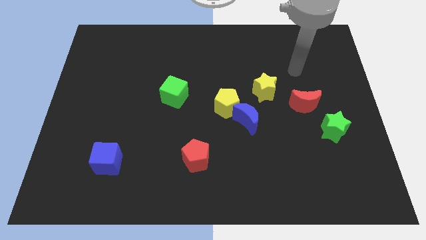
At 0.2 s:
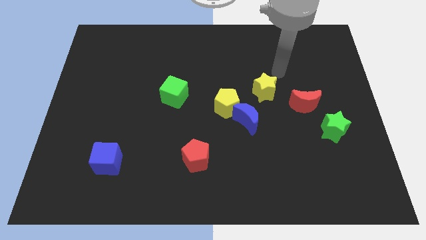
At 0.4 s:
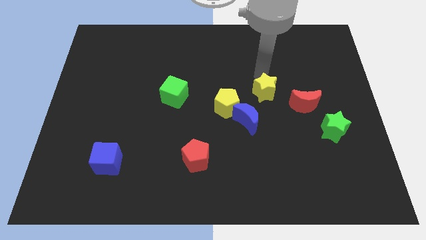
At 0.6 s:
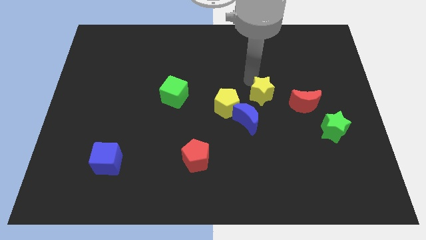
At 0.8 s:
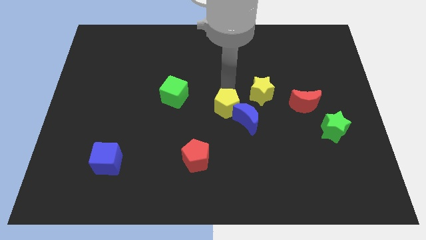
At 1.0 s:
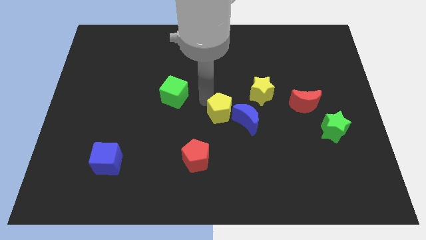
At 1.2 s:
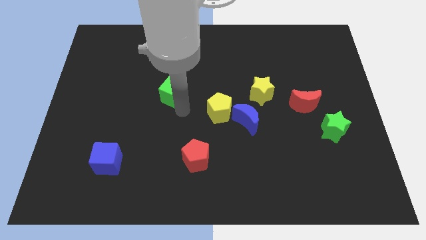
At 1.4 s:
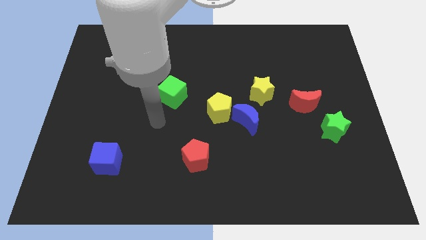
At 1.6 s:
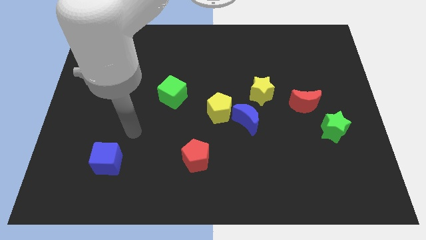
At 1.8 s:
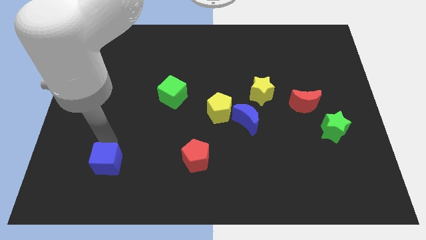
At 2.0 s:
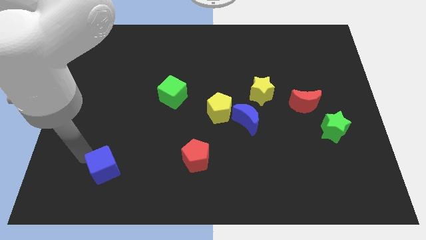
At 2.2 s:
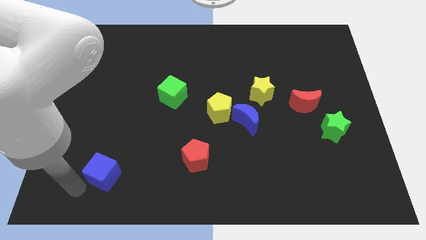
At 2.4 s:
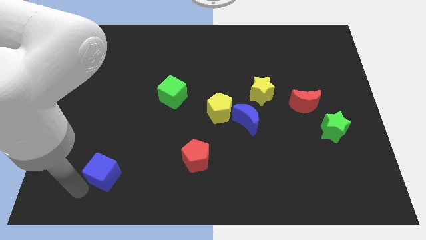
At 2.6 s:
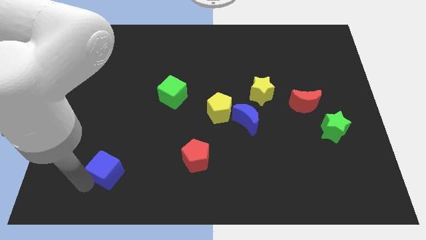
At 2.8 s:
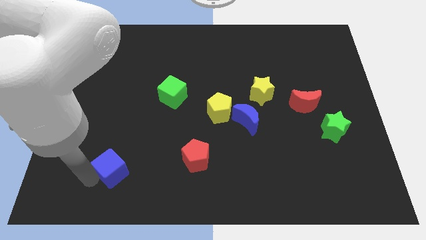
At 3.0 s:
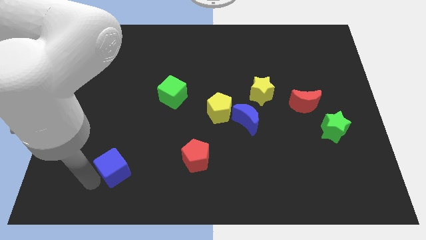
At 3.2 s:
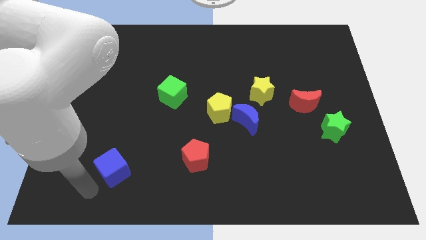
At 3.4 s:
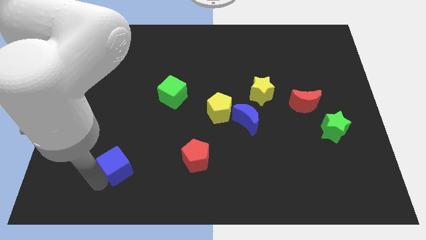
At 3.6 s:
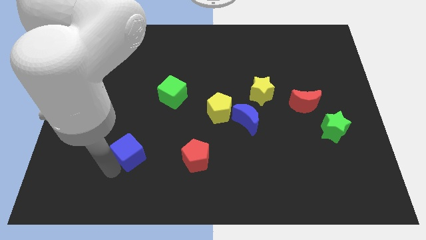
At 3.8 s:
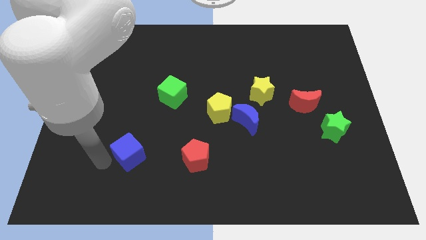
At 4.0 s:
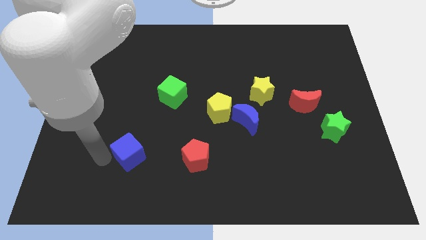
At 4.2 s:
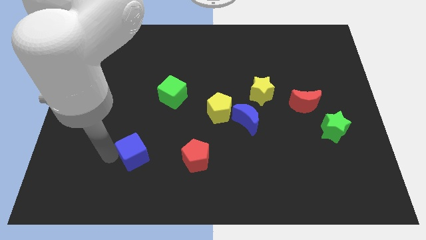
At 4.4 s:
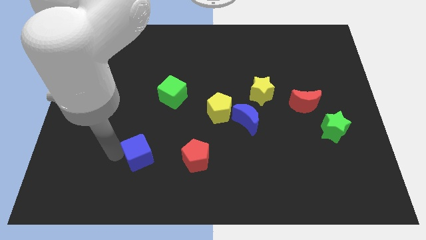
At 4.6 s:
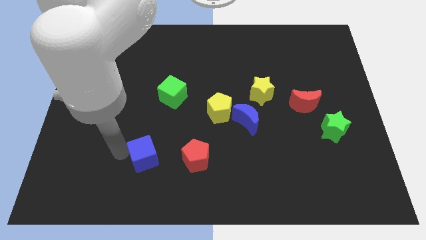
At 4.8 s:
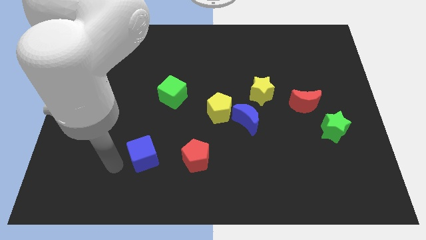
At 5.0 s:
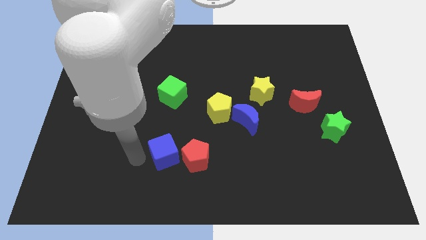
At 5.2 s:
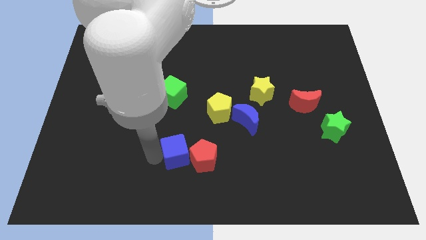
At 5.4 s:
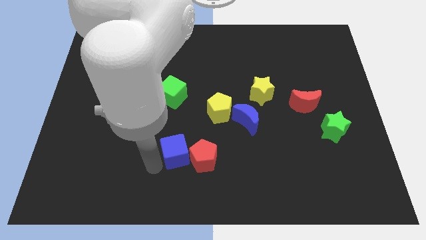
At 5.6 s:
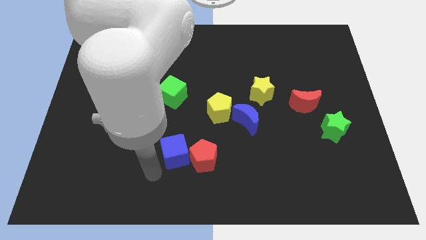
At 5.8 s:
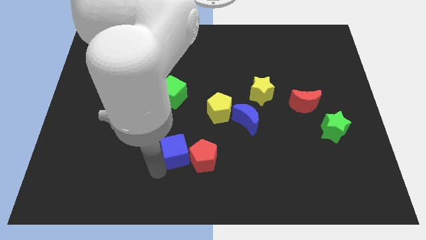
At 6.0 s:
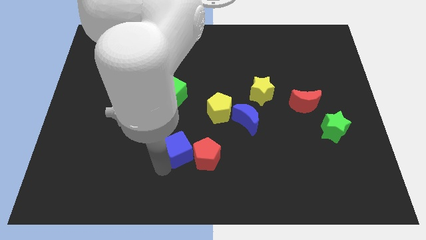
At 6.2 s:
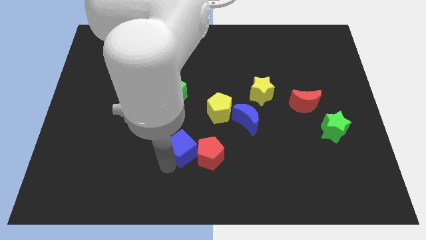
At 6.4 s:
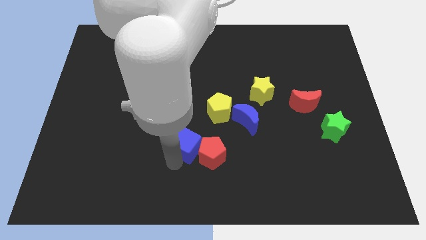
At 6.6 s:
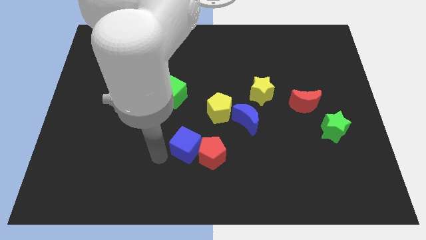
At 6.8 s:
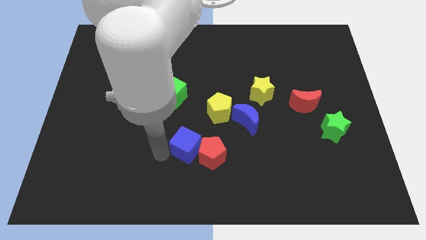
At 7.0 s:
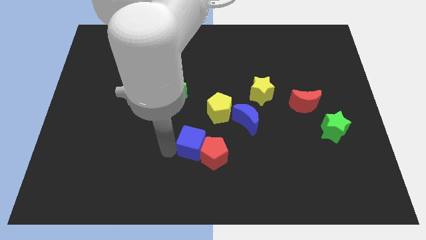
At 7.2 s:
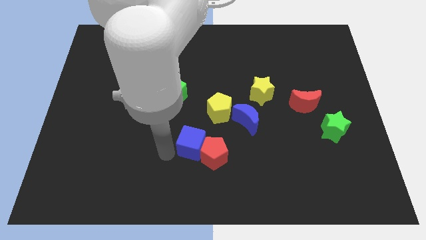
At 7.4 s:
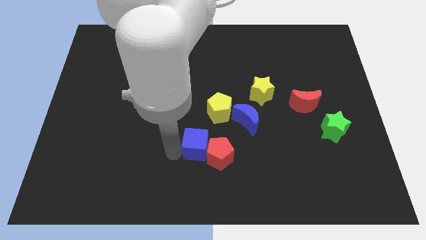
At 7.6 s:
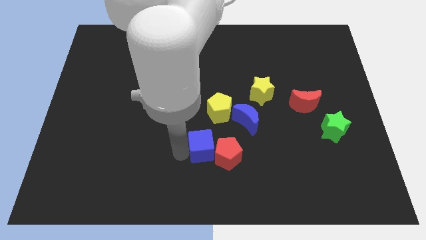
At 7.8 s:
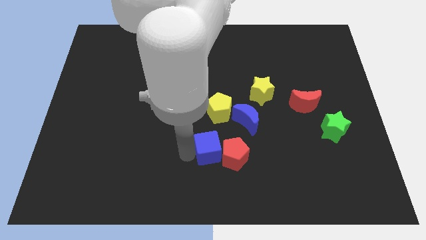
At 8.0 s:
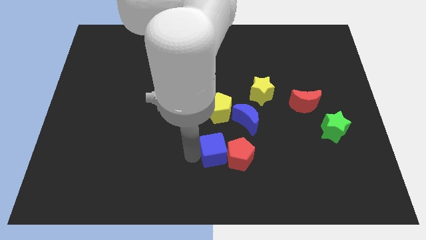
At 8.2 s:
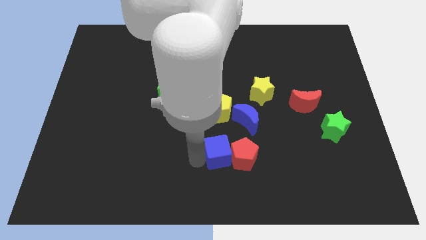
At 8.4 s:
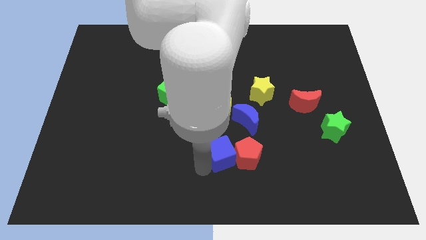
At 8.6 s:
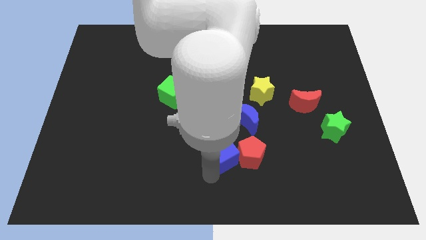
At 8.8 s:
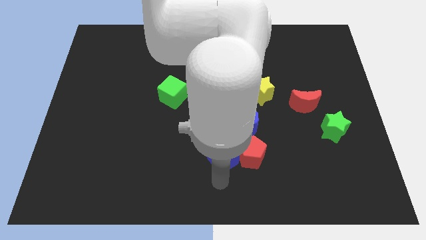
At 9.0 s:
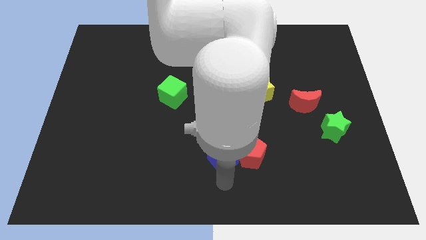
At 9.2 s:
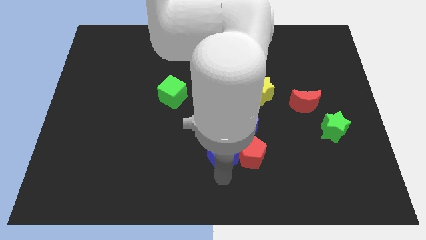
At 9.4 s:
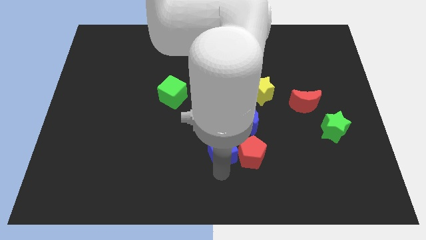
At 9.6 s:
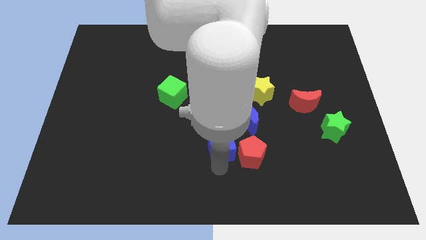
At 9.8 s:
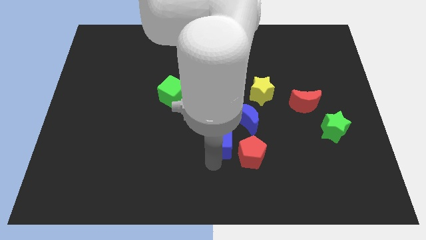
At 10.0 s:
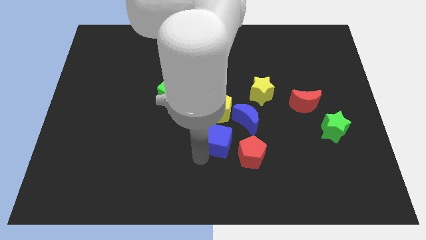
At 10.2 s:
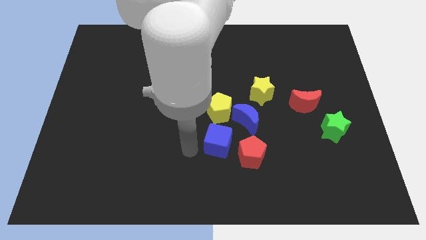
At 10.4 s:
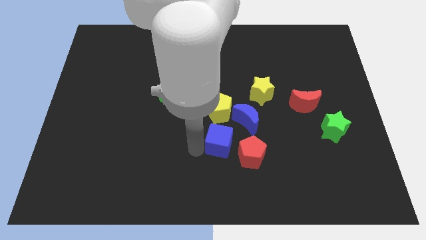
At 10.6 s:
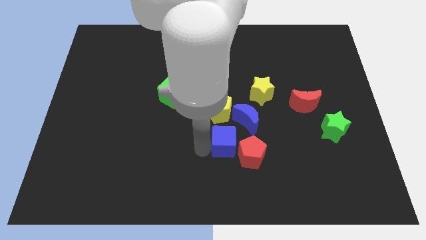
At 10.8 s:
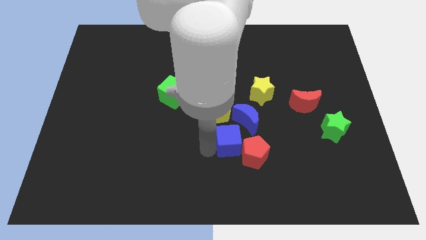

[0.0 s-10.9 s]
put the blue cube diagonally down and to the right of the yellow pentagon

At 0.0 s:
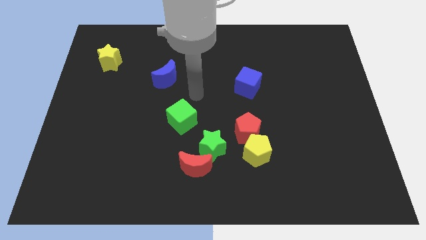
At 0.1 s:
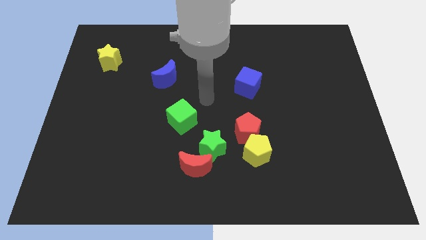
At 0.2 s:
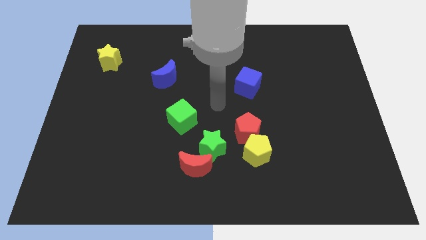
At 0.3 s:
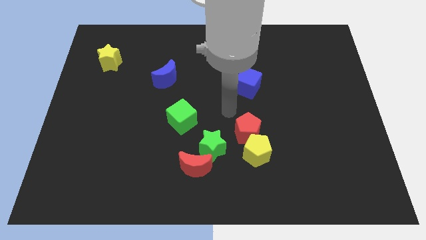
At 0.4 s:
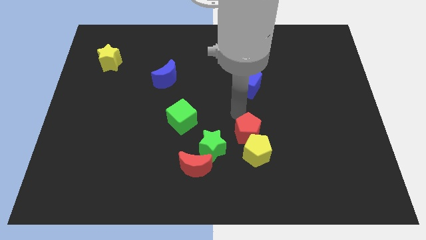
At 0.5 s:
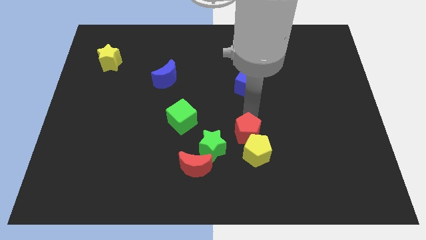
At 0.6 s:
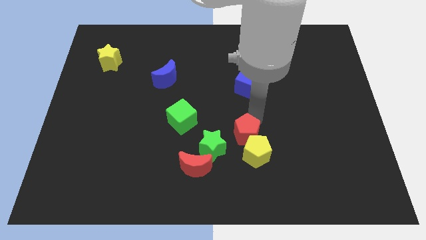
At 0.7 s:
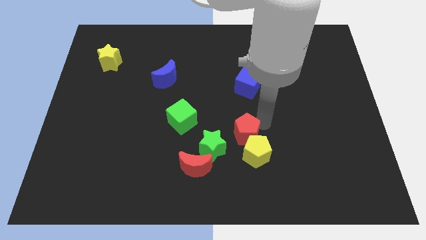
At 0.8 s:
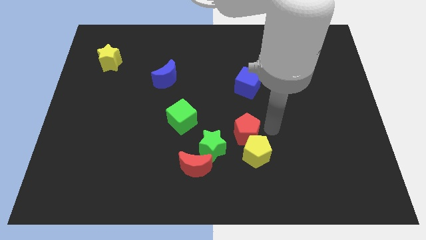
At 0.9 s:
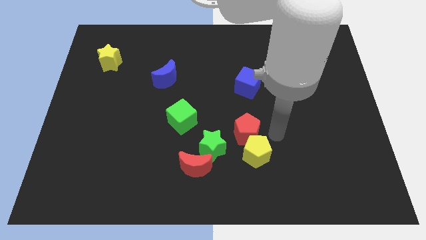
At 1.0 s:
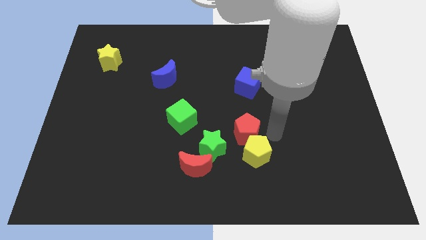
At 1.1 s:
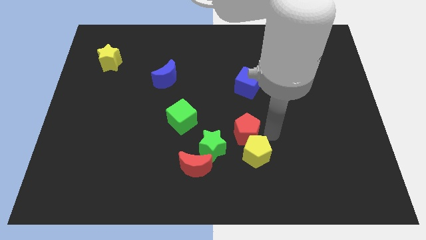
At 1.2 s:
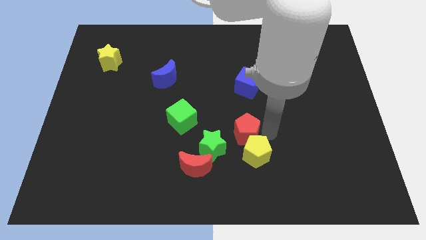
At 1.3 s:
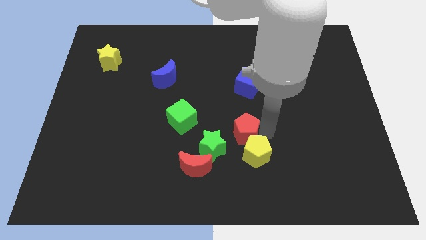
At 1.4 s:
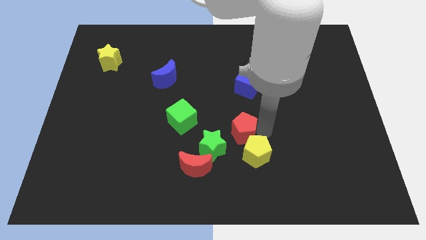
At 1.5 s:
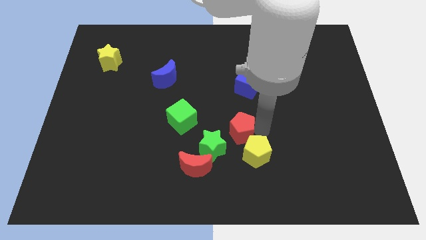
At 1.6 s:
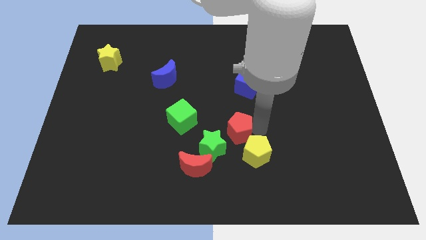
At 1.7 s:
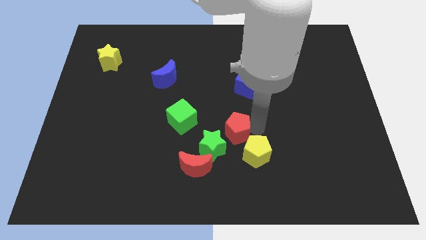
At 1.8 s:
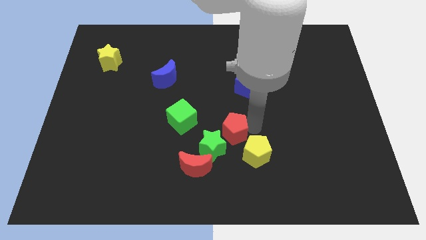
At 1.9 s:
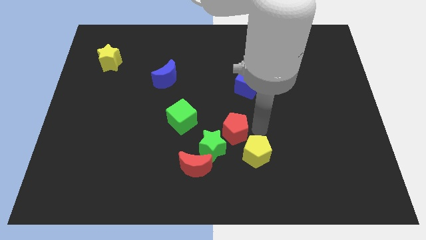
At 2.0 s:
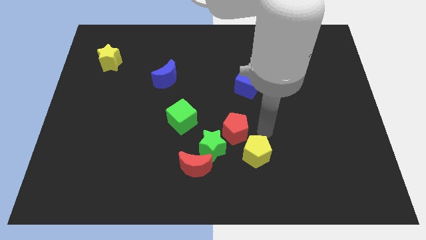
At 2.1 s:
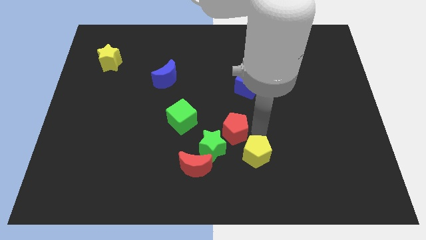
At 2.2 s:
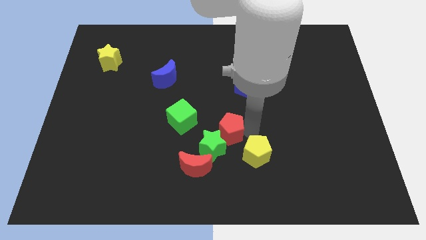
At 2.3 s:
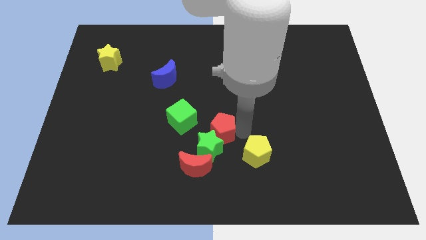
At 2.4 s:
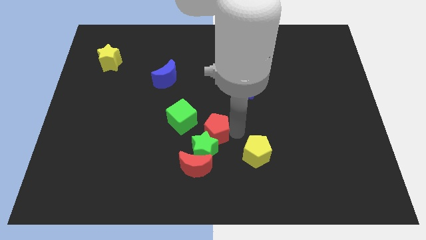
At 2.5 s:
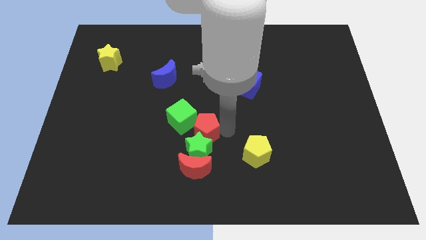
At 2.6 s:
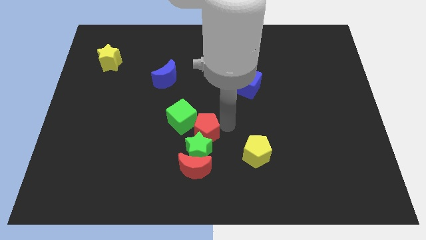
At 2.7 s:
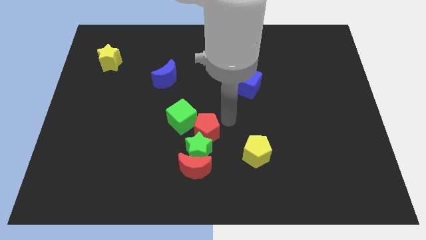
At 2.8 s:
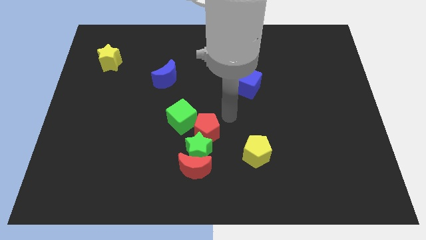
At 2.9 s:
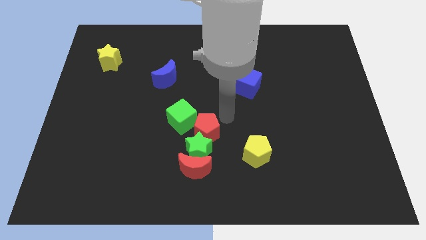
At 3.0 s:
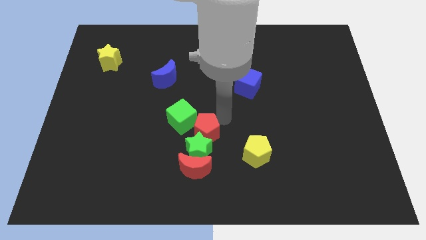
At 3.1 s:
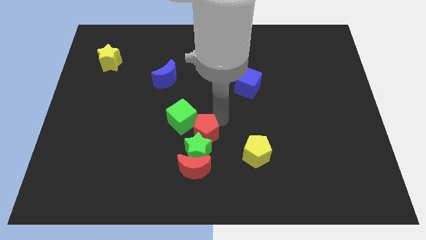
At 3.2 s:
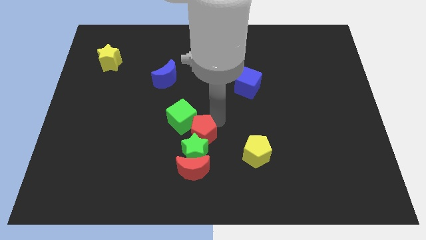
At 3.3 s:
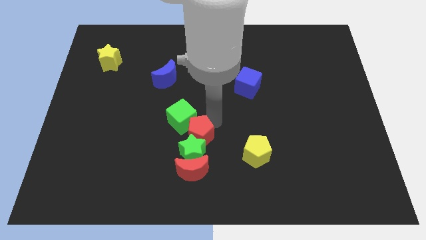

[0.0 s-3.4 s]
move the red pentagon below the green cube
